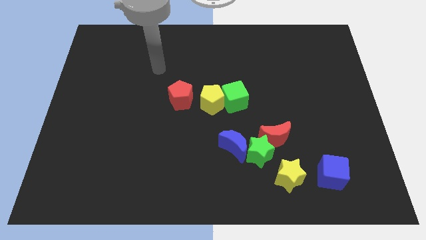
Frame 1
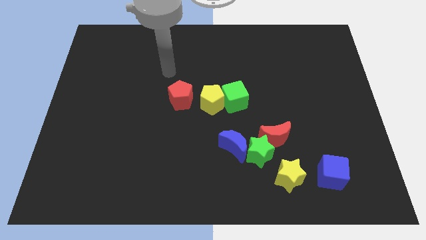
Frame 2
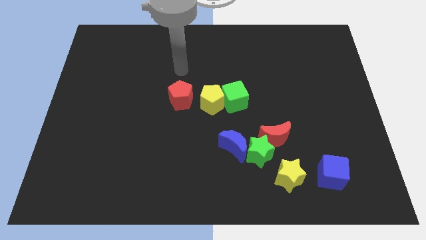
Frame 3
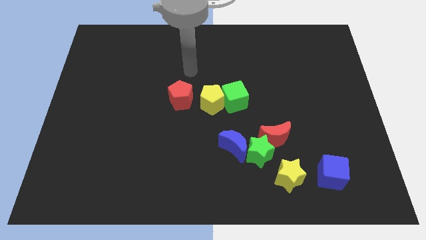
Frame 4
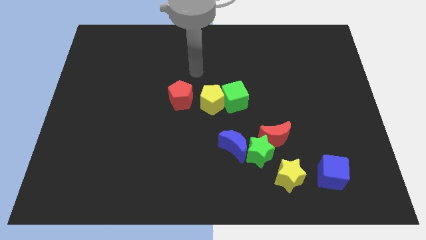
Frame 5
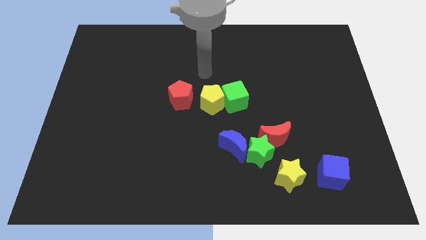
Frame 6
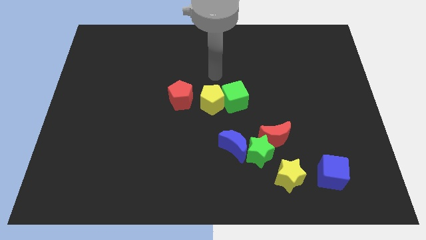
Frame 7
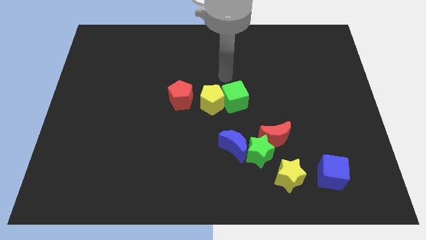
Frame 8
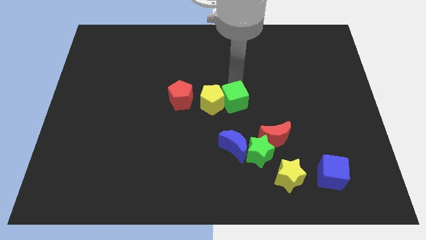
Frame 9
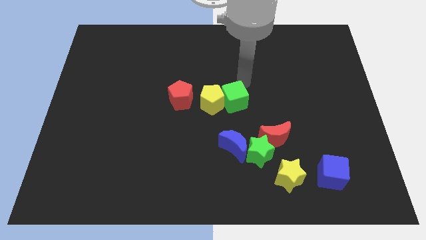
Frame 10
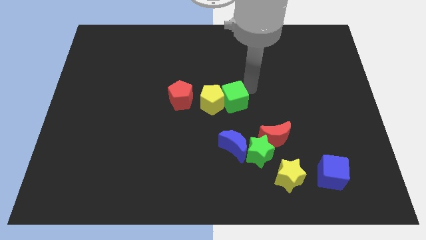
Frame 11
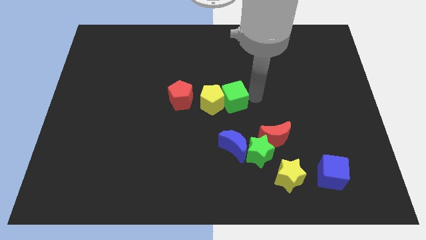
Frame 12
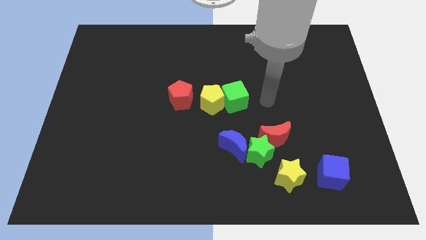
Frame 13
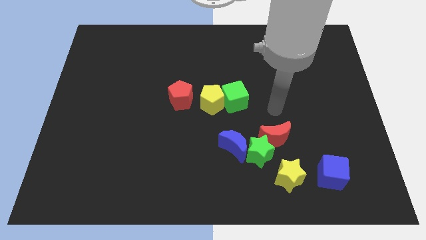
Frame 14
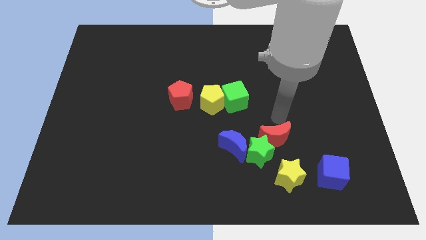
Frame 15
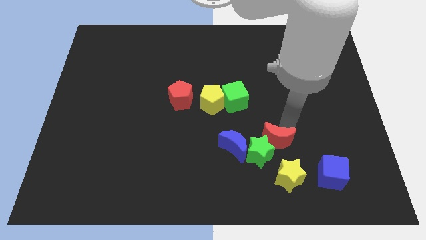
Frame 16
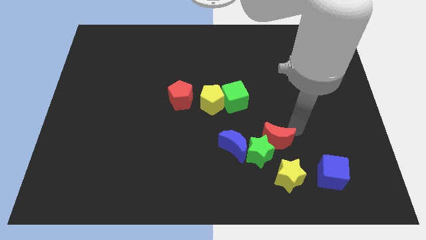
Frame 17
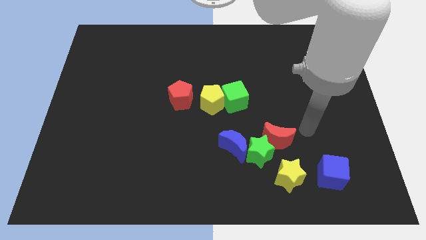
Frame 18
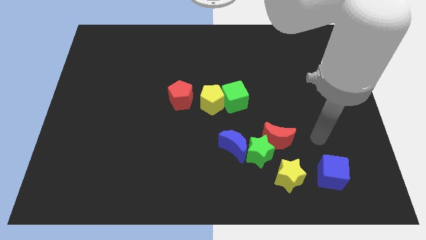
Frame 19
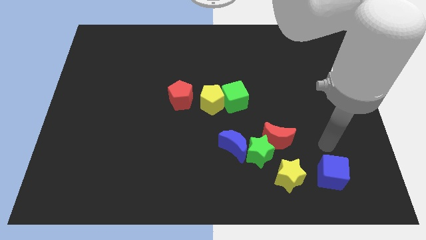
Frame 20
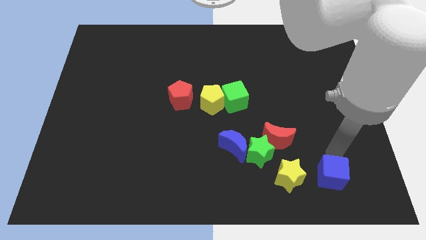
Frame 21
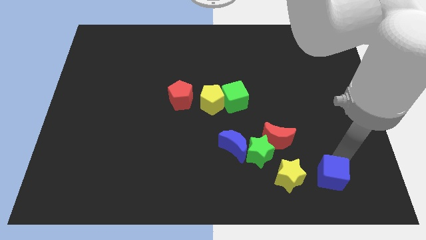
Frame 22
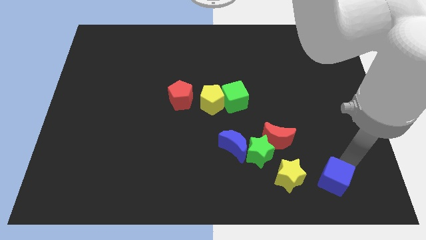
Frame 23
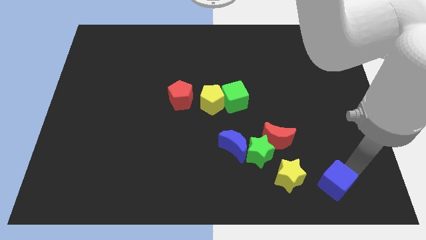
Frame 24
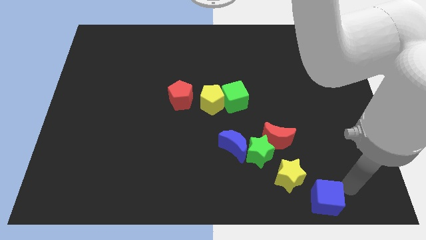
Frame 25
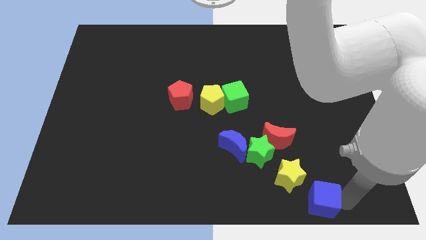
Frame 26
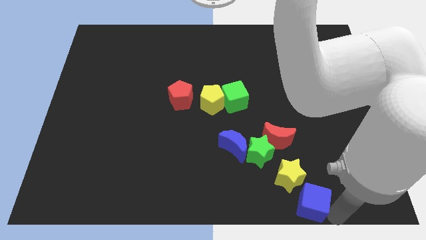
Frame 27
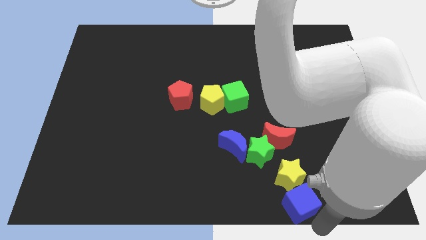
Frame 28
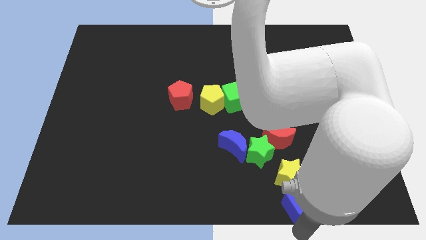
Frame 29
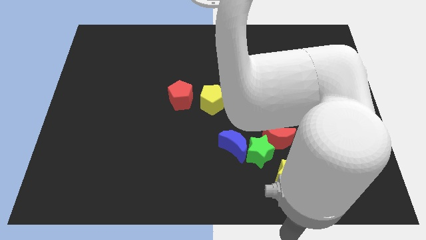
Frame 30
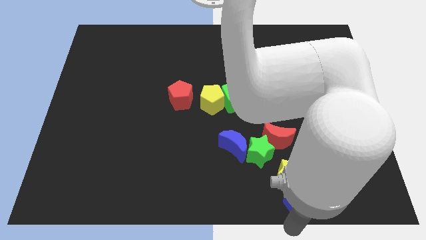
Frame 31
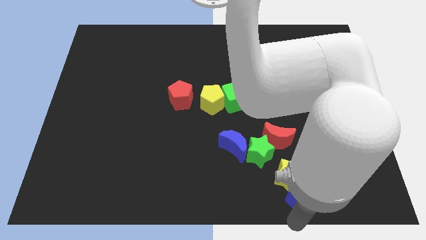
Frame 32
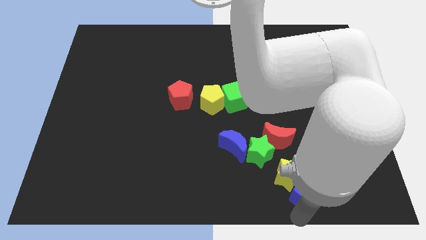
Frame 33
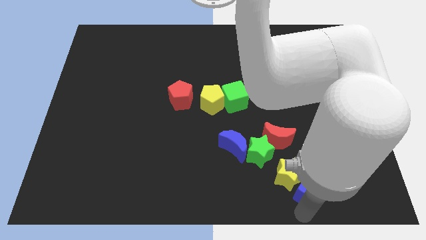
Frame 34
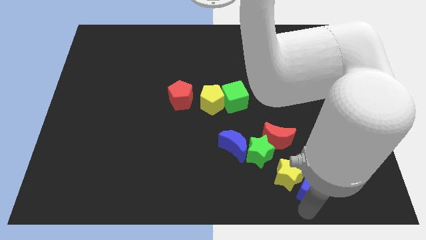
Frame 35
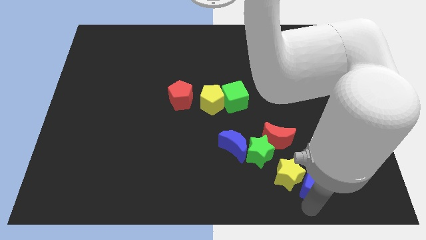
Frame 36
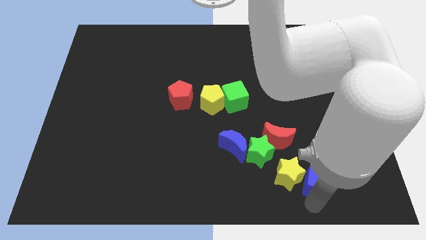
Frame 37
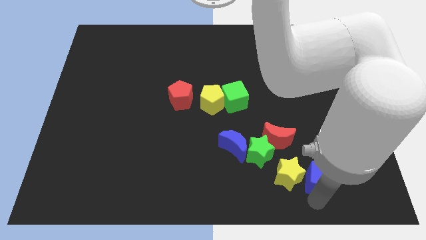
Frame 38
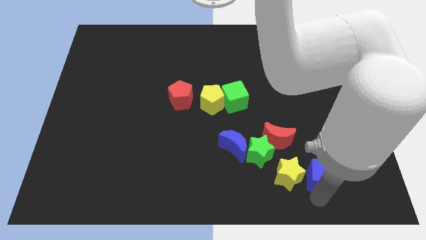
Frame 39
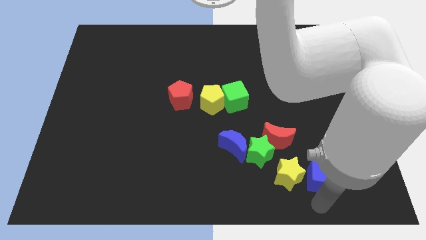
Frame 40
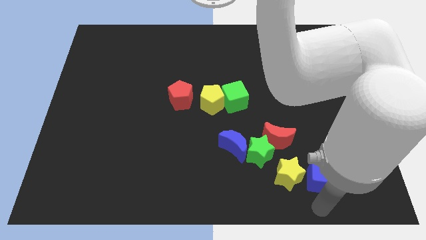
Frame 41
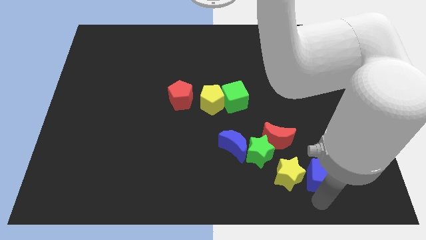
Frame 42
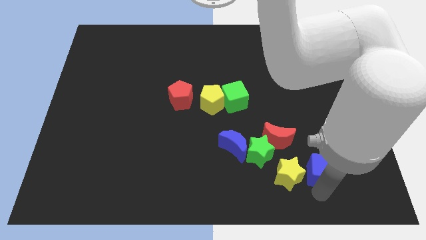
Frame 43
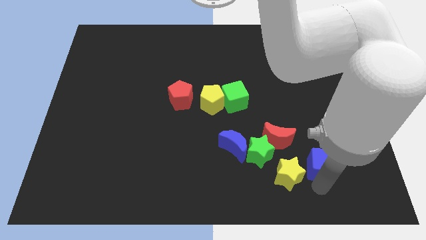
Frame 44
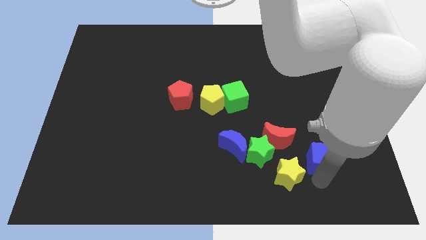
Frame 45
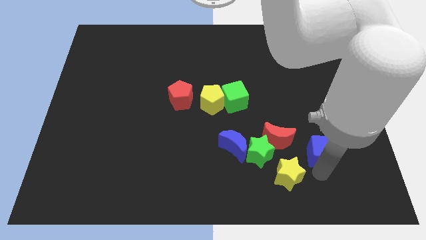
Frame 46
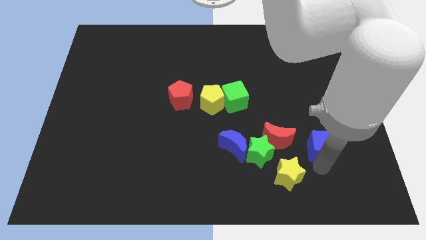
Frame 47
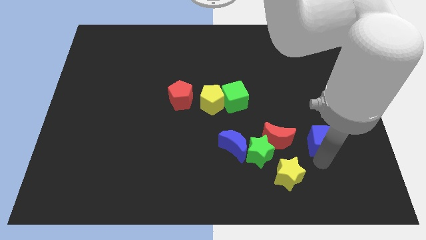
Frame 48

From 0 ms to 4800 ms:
move the blue cube upwards slightly

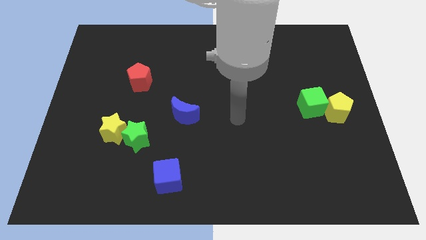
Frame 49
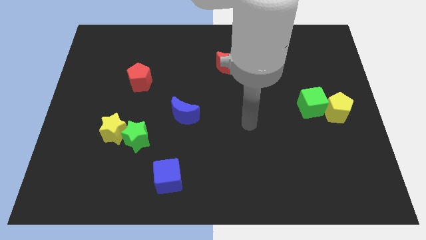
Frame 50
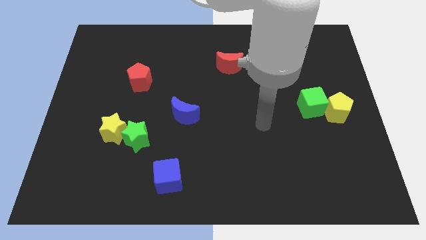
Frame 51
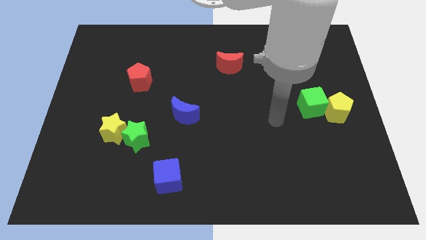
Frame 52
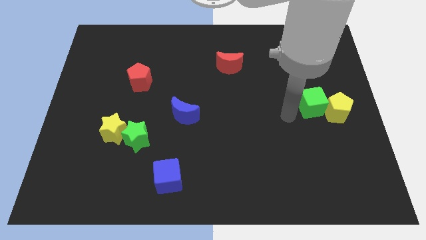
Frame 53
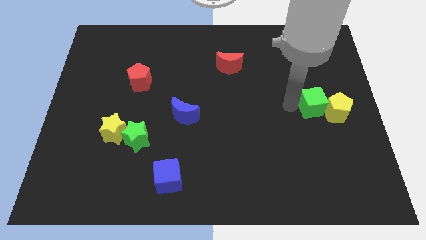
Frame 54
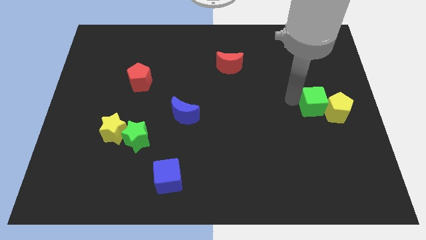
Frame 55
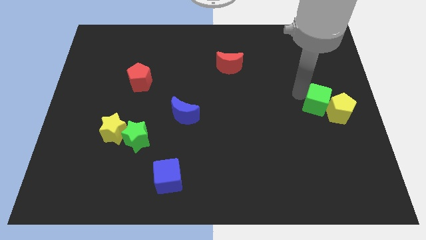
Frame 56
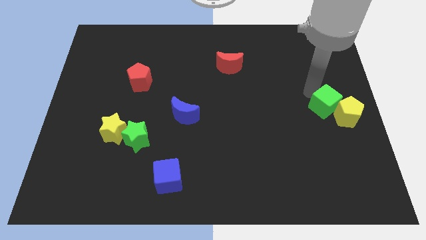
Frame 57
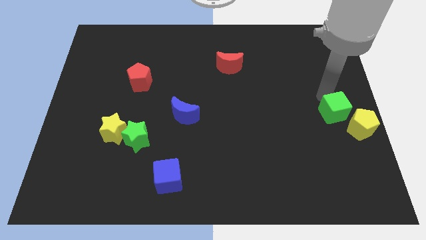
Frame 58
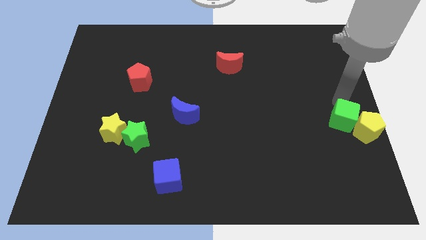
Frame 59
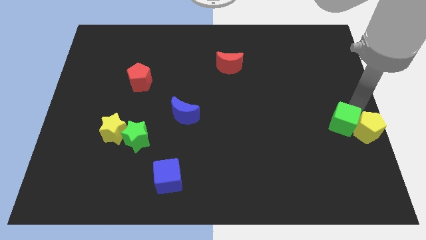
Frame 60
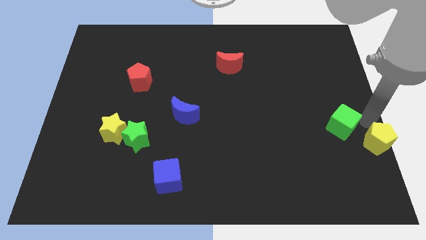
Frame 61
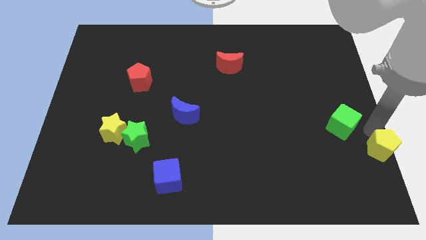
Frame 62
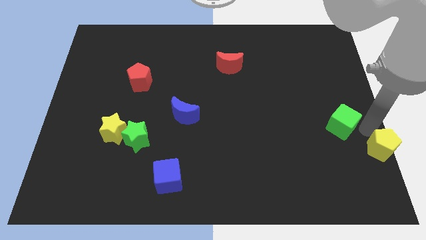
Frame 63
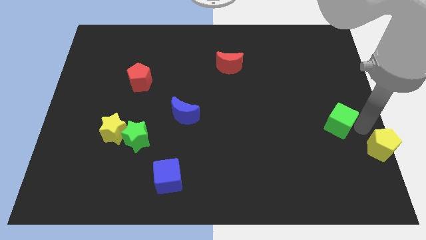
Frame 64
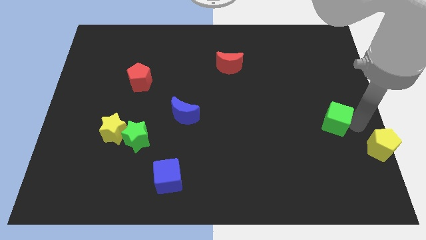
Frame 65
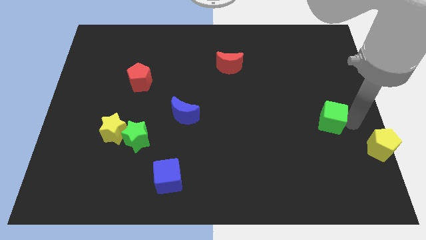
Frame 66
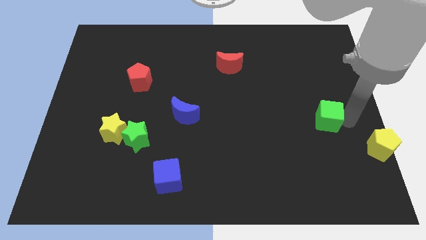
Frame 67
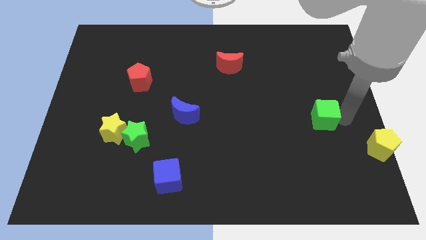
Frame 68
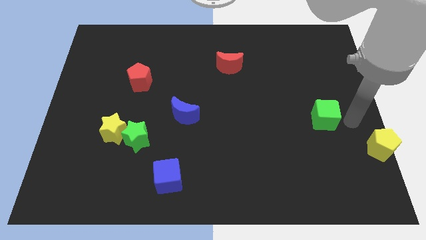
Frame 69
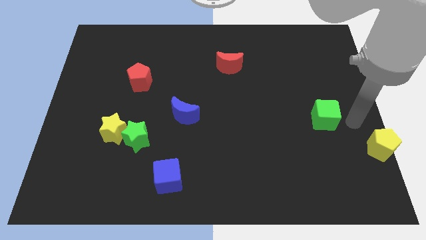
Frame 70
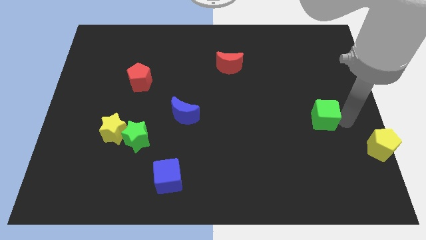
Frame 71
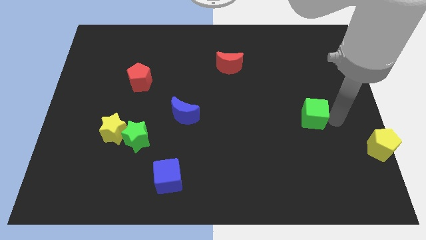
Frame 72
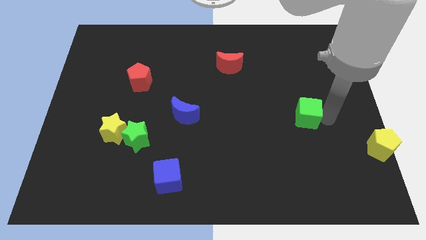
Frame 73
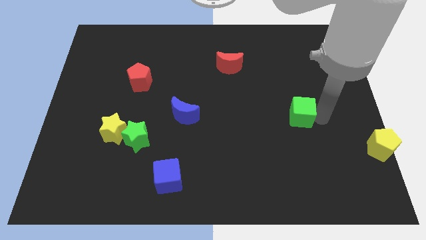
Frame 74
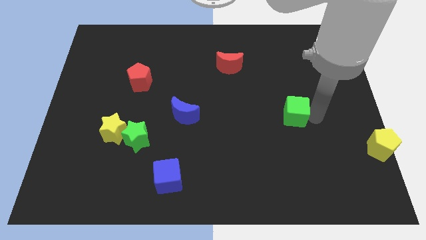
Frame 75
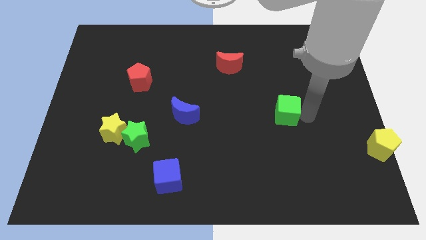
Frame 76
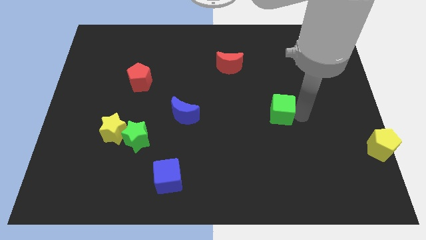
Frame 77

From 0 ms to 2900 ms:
slide the green cube left a little

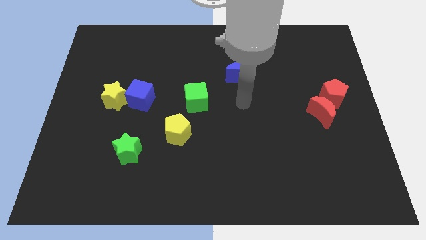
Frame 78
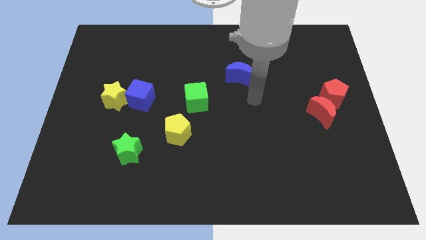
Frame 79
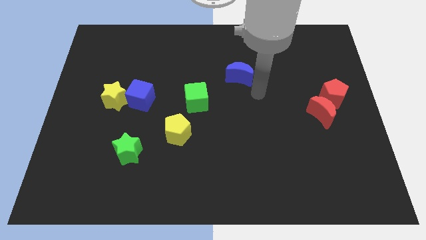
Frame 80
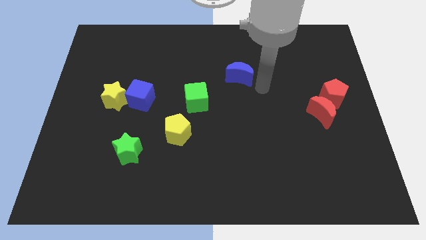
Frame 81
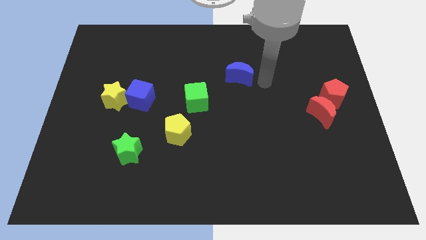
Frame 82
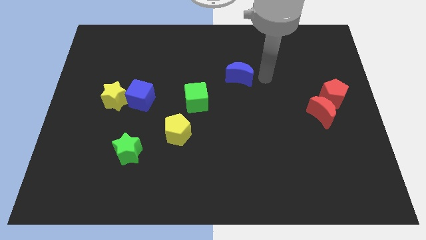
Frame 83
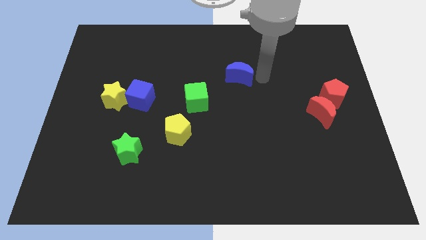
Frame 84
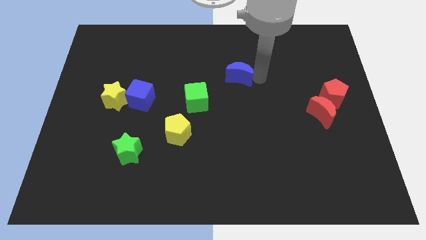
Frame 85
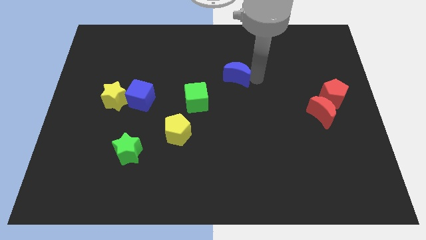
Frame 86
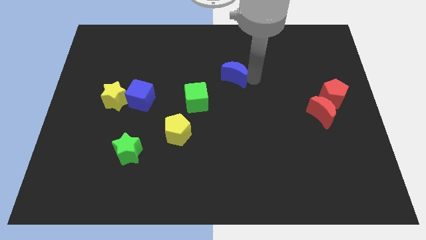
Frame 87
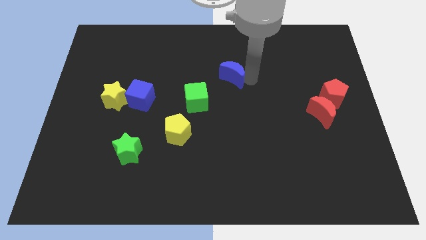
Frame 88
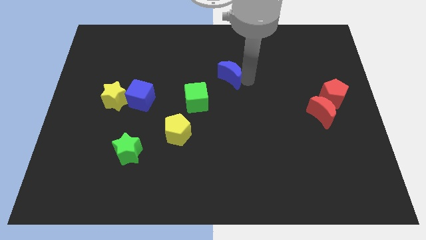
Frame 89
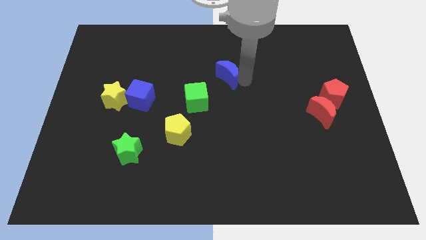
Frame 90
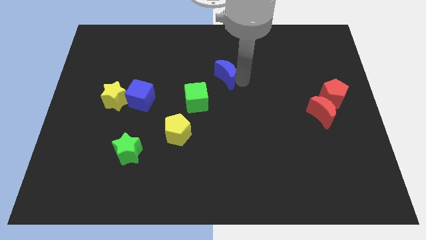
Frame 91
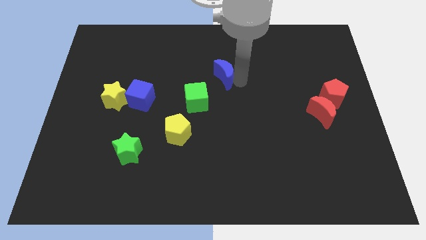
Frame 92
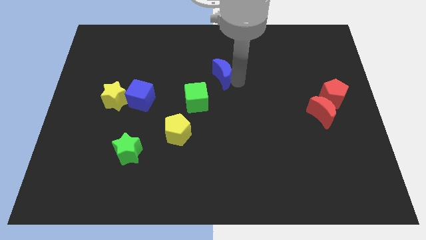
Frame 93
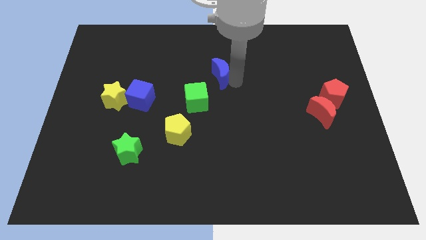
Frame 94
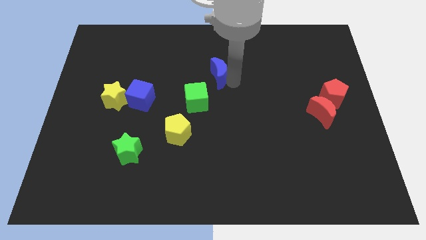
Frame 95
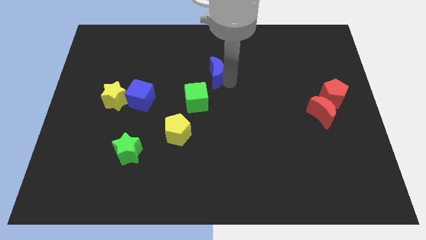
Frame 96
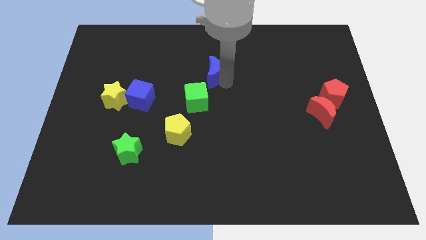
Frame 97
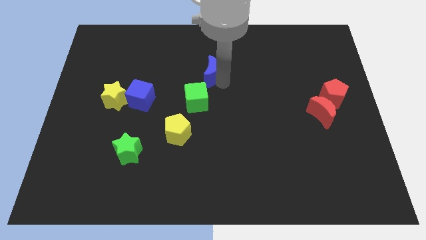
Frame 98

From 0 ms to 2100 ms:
move the blue moon to the left a little
